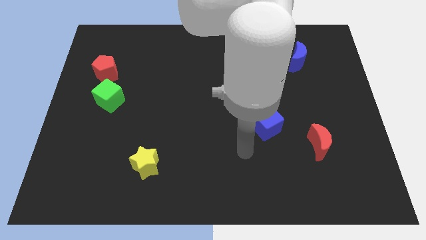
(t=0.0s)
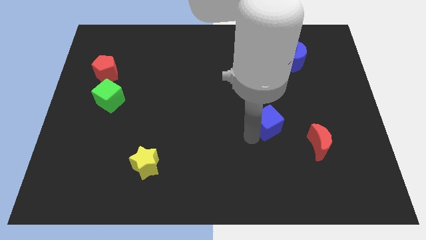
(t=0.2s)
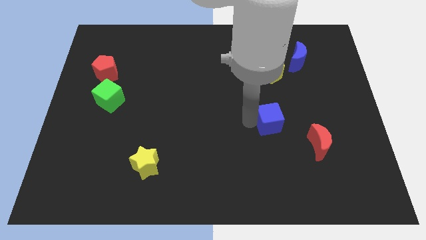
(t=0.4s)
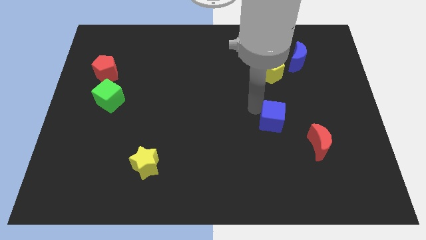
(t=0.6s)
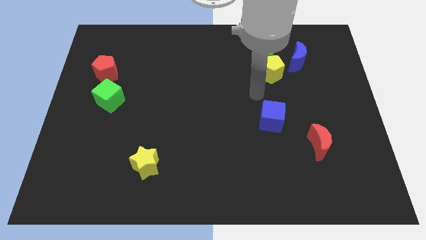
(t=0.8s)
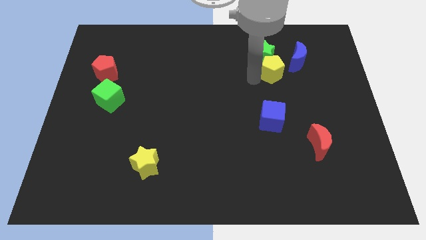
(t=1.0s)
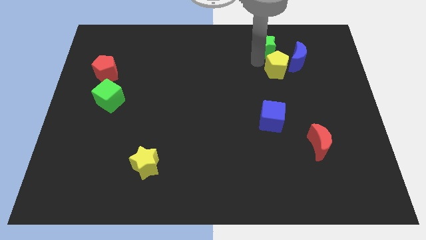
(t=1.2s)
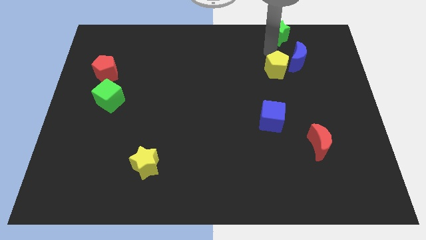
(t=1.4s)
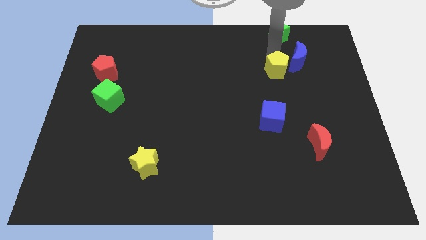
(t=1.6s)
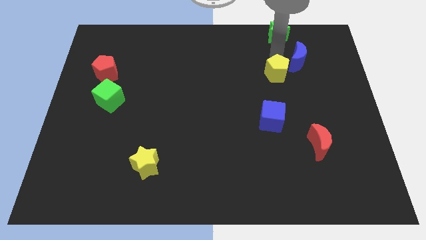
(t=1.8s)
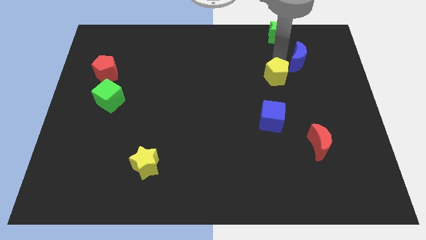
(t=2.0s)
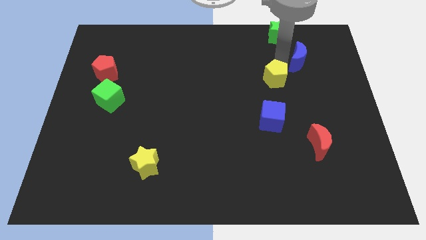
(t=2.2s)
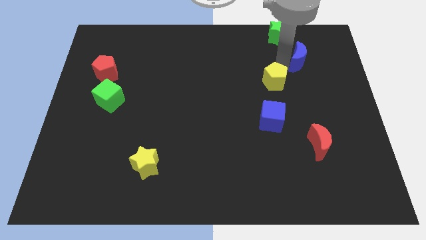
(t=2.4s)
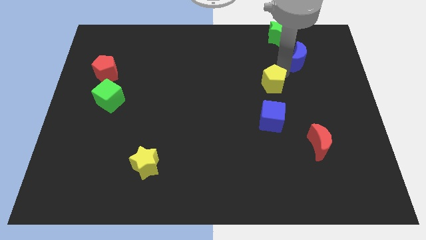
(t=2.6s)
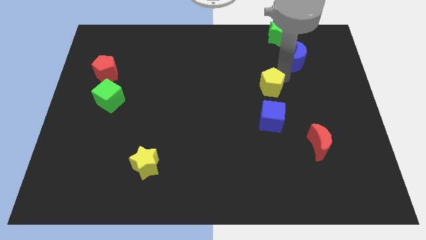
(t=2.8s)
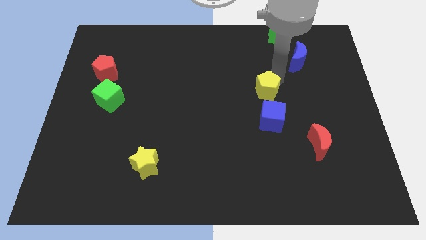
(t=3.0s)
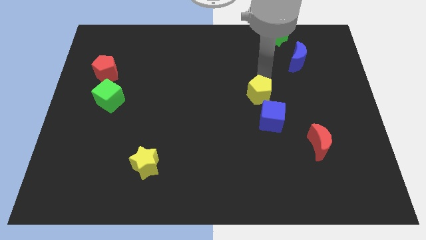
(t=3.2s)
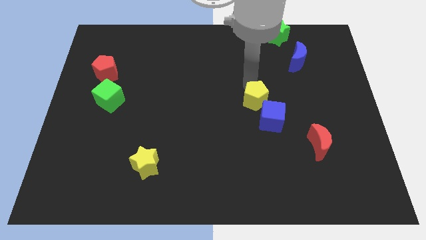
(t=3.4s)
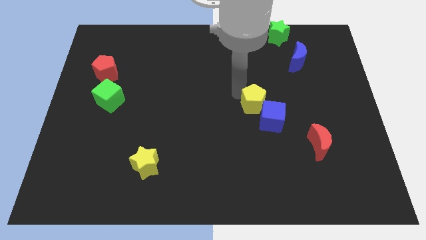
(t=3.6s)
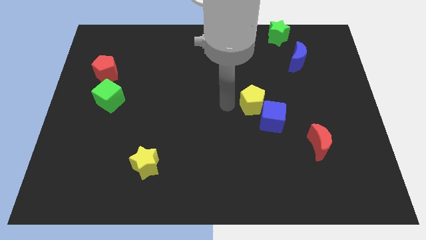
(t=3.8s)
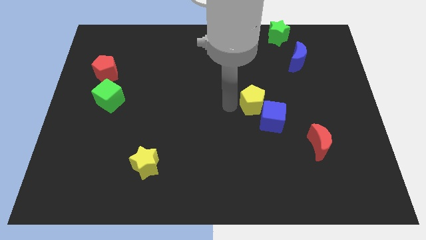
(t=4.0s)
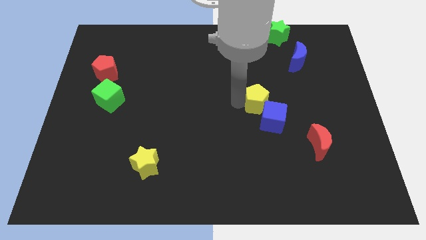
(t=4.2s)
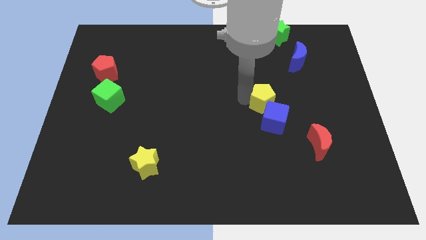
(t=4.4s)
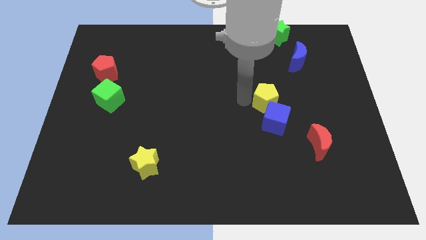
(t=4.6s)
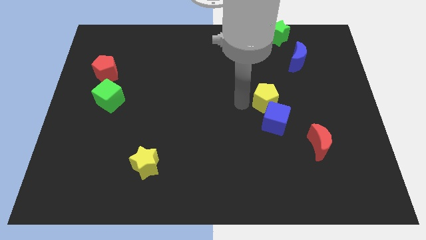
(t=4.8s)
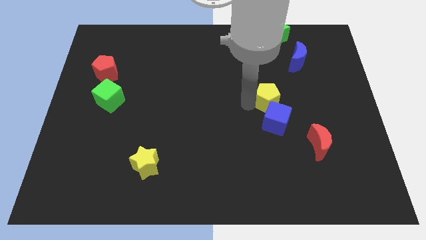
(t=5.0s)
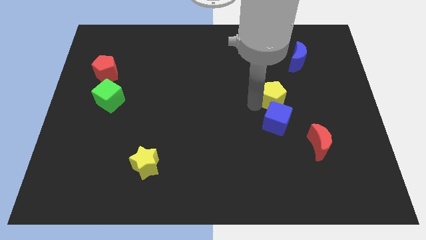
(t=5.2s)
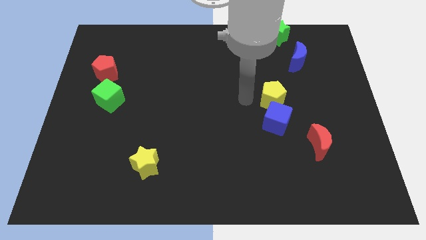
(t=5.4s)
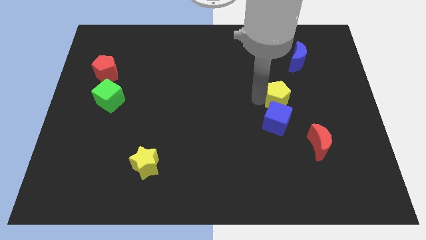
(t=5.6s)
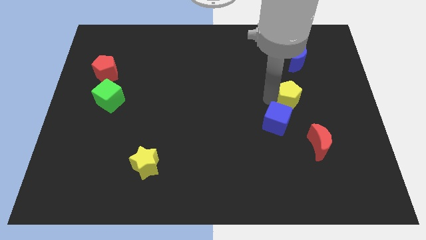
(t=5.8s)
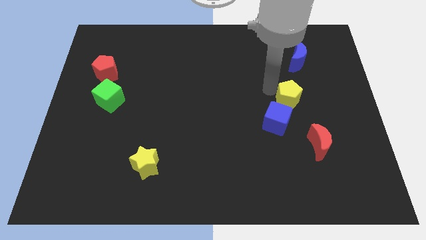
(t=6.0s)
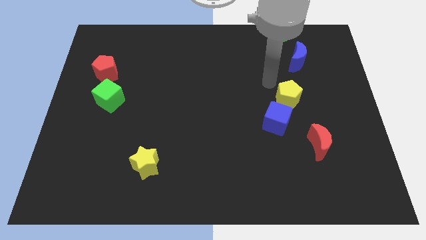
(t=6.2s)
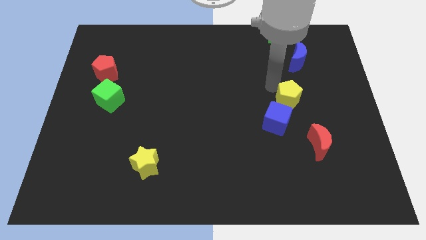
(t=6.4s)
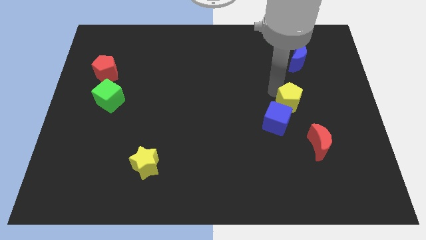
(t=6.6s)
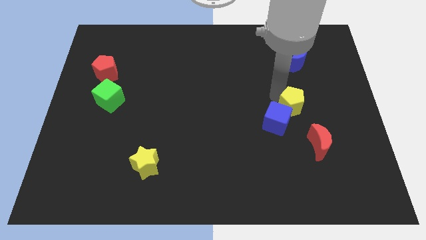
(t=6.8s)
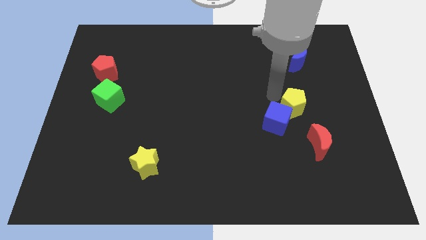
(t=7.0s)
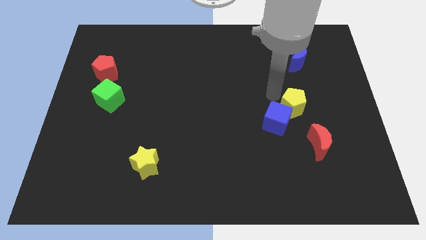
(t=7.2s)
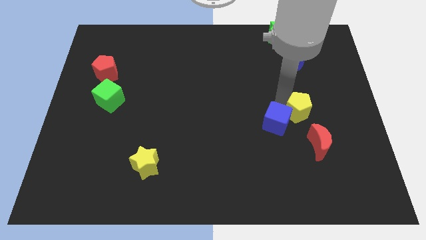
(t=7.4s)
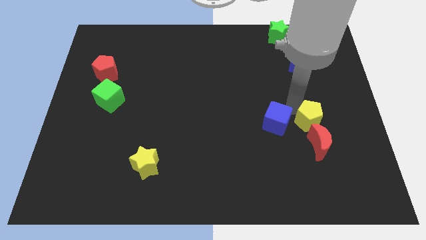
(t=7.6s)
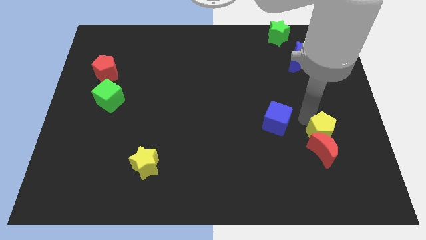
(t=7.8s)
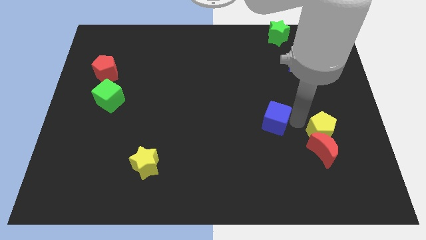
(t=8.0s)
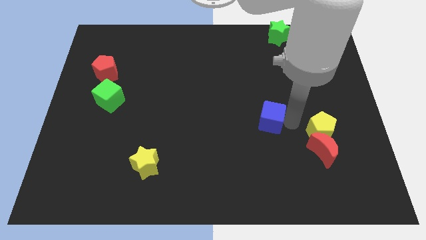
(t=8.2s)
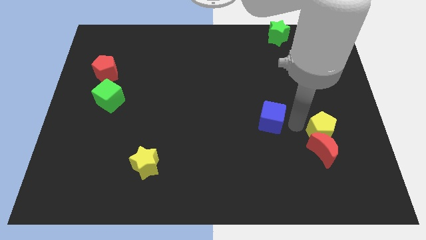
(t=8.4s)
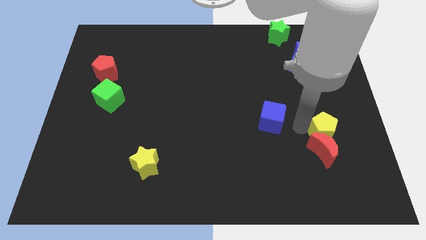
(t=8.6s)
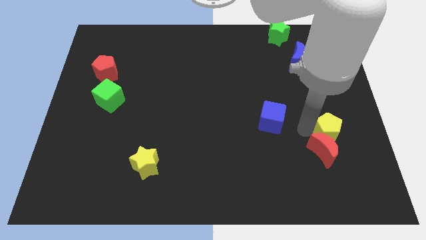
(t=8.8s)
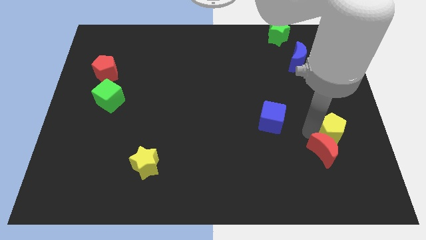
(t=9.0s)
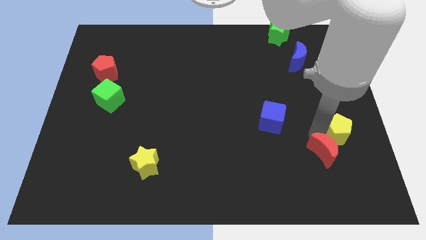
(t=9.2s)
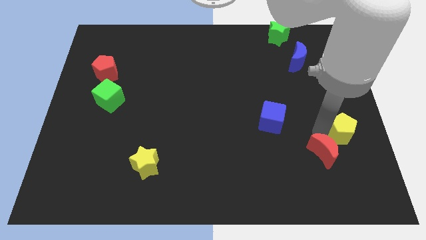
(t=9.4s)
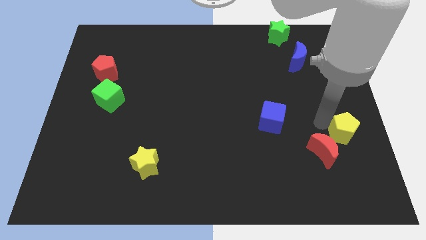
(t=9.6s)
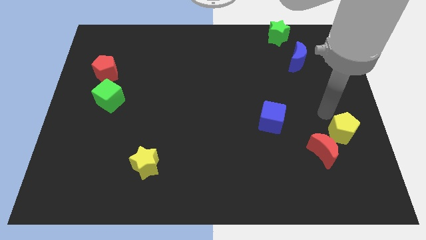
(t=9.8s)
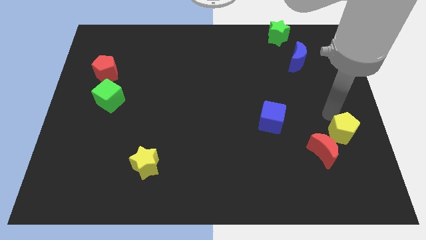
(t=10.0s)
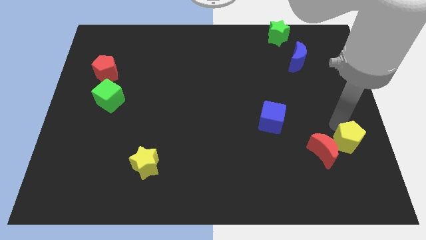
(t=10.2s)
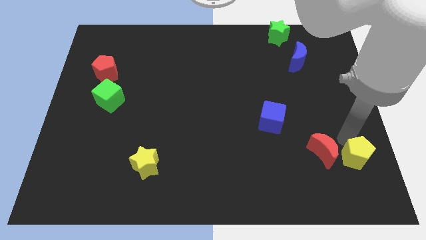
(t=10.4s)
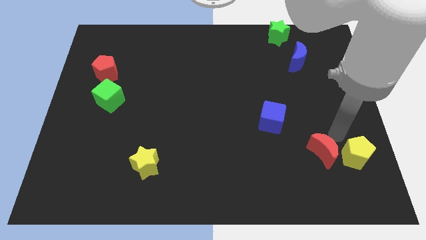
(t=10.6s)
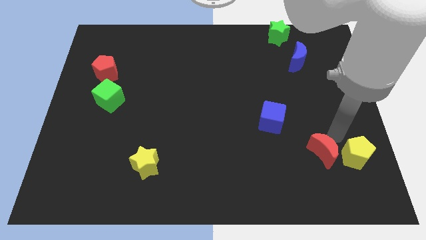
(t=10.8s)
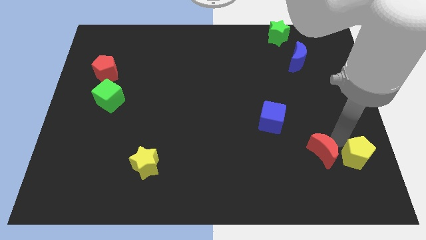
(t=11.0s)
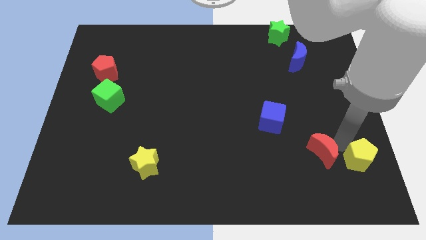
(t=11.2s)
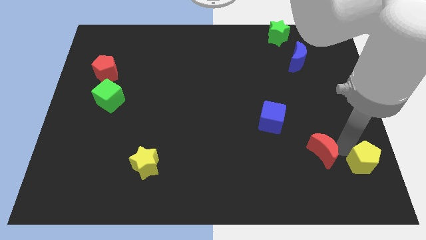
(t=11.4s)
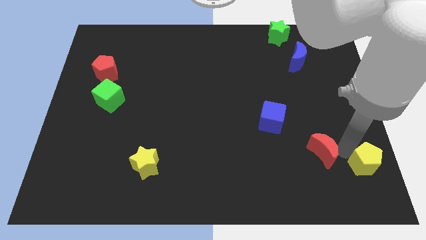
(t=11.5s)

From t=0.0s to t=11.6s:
slide the yellow pentagon to the bottom right of the board
